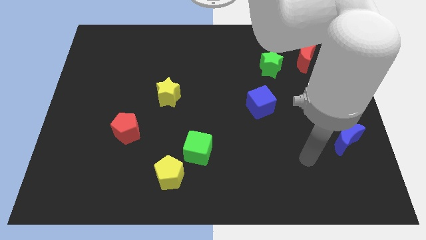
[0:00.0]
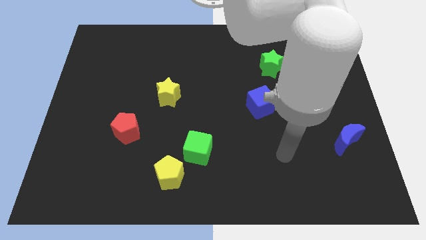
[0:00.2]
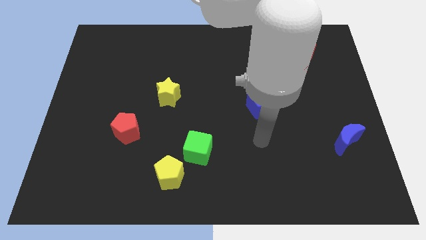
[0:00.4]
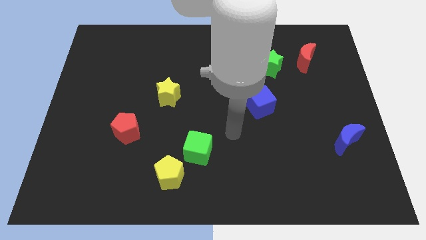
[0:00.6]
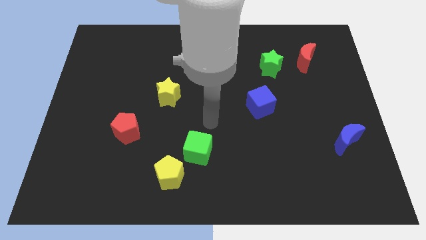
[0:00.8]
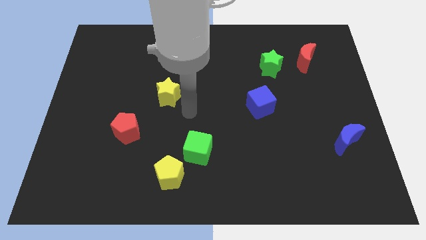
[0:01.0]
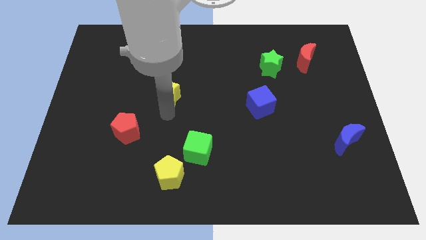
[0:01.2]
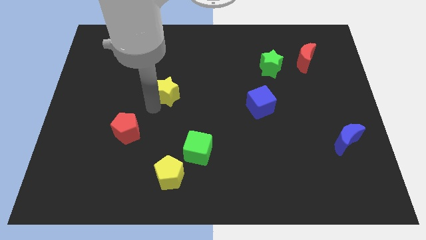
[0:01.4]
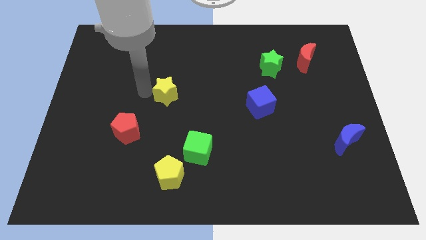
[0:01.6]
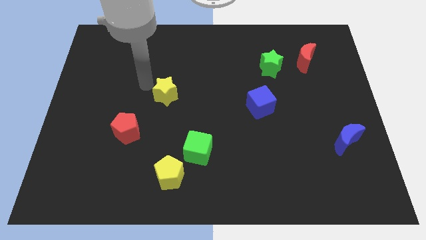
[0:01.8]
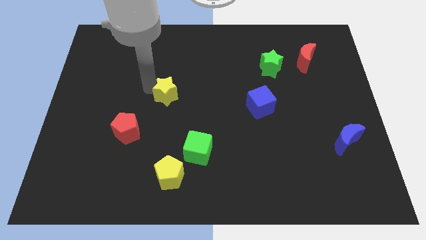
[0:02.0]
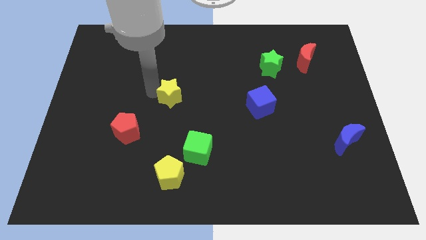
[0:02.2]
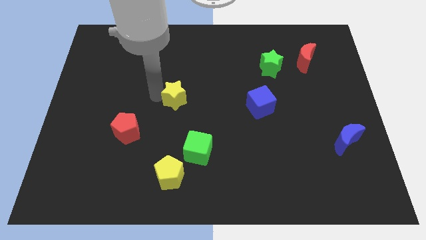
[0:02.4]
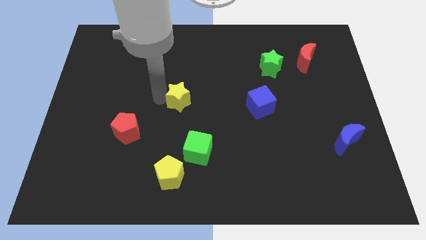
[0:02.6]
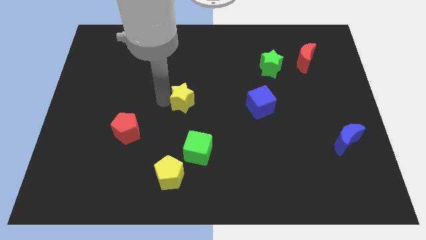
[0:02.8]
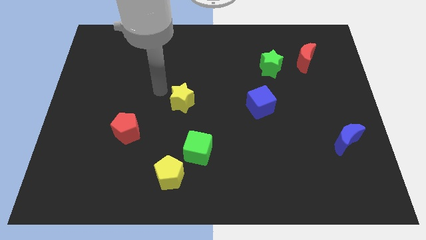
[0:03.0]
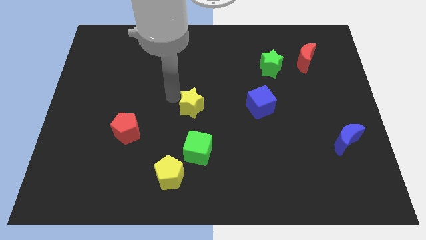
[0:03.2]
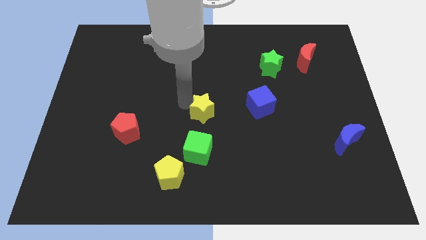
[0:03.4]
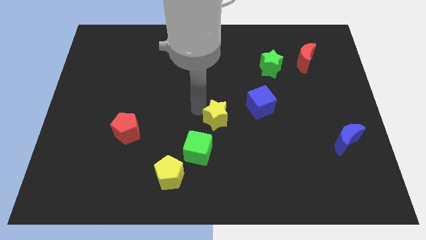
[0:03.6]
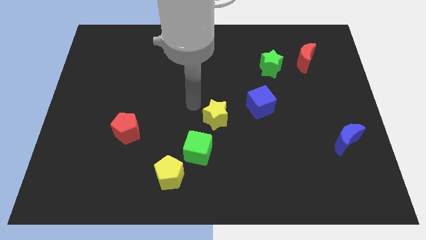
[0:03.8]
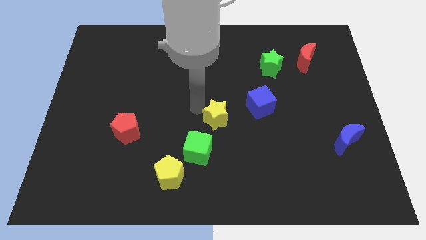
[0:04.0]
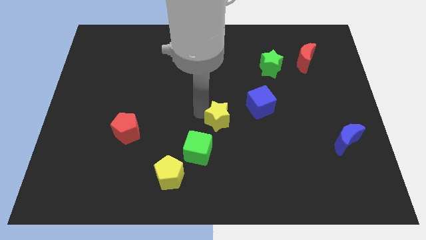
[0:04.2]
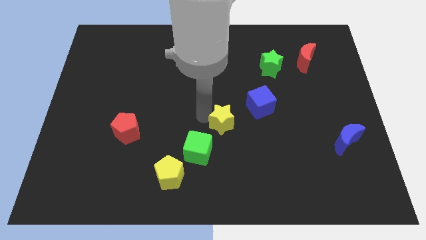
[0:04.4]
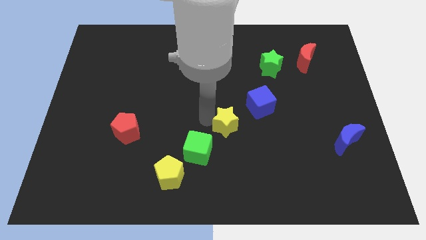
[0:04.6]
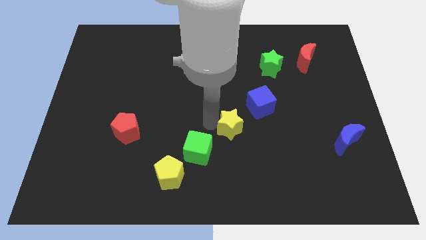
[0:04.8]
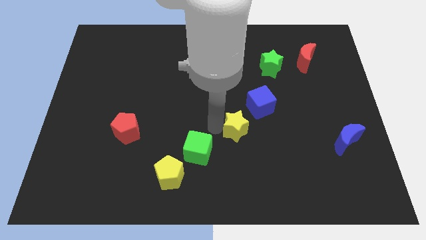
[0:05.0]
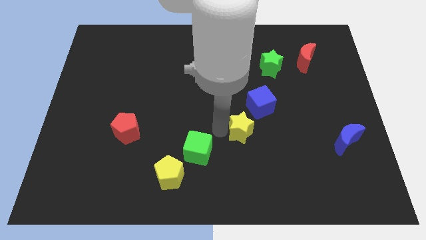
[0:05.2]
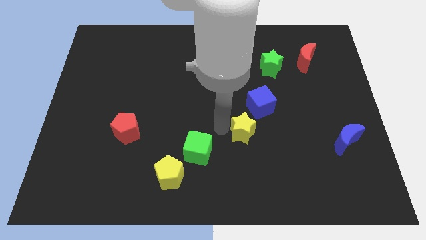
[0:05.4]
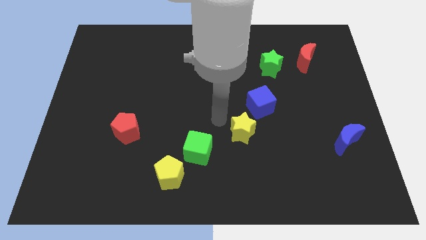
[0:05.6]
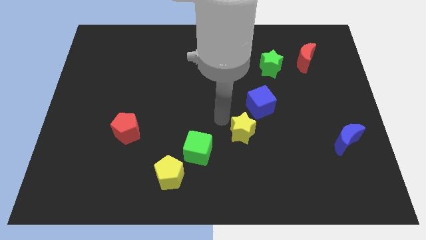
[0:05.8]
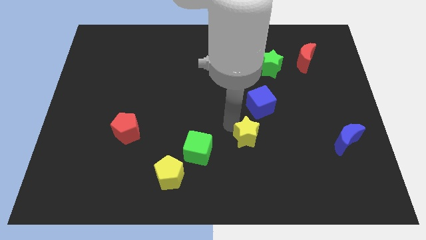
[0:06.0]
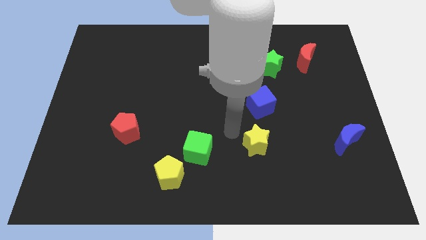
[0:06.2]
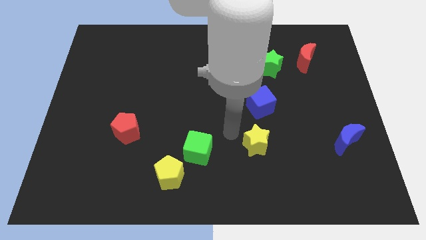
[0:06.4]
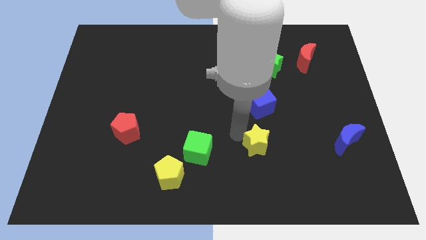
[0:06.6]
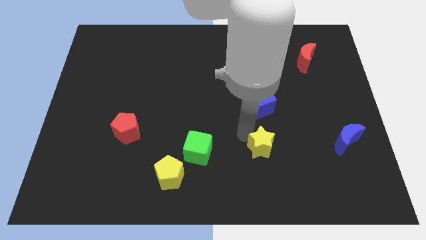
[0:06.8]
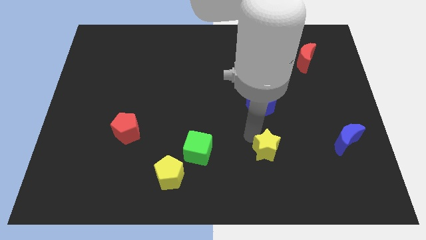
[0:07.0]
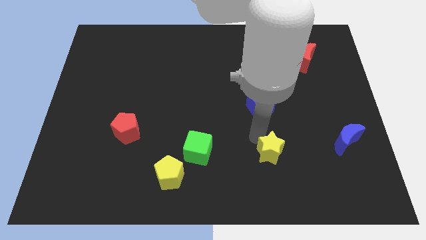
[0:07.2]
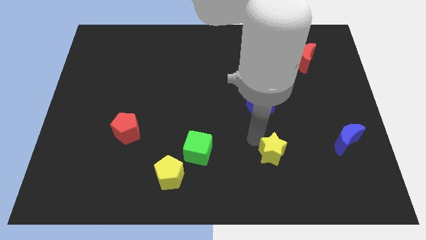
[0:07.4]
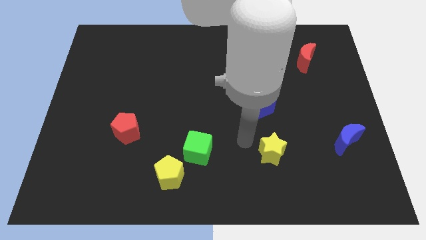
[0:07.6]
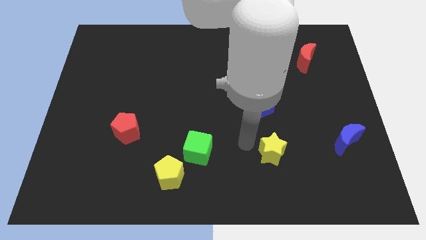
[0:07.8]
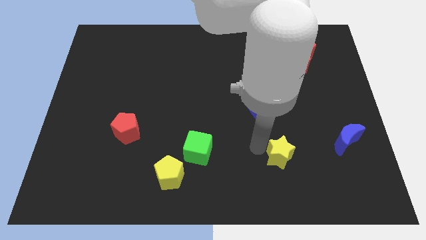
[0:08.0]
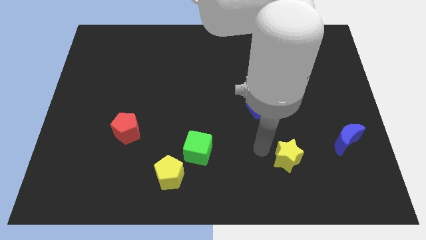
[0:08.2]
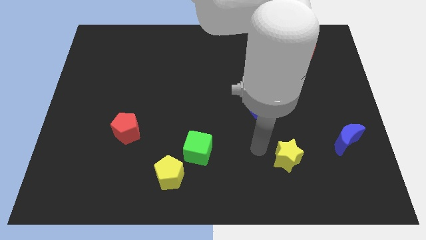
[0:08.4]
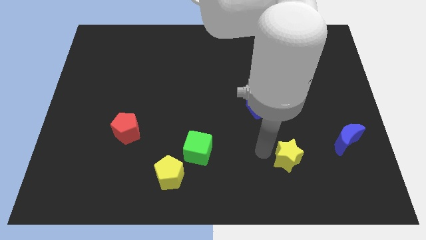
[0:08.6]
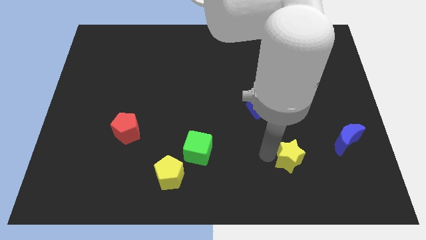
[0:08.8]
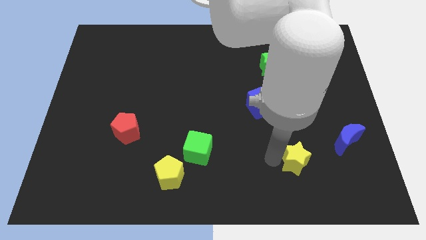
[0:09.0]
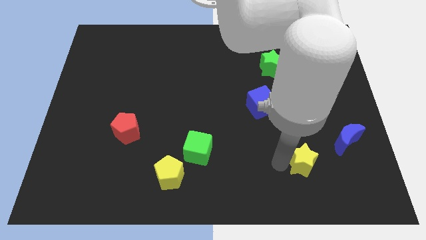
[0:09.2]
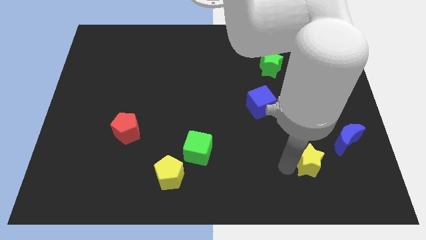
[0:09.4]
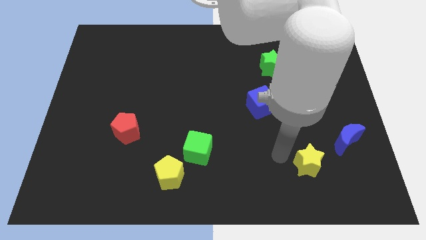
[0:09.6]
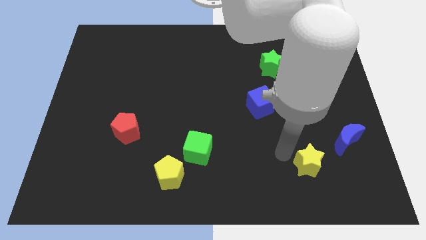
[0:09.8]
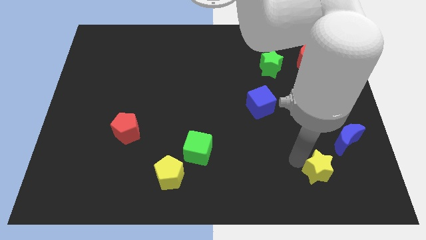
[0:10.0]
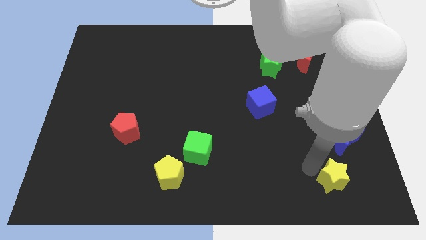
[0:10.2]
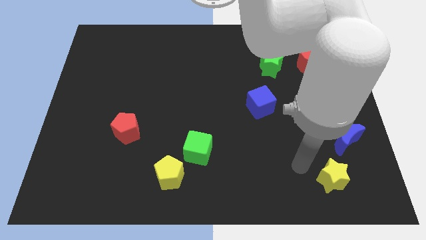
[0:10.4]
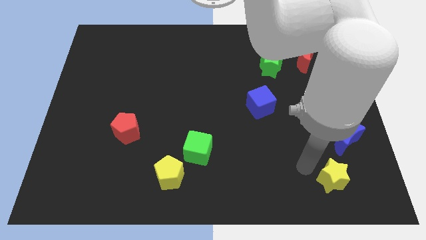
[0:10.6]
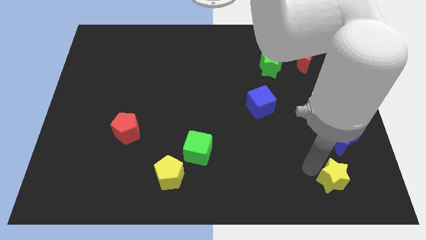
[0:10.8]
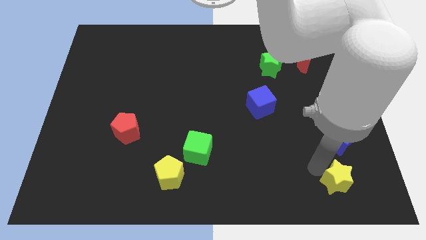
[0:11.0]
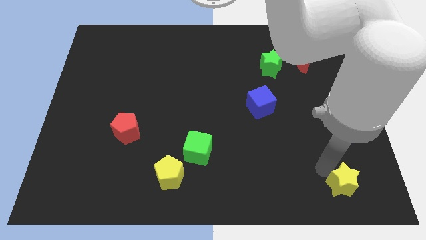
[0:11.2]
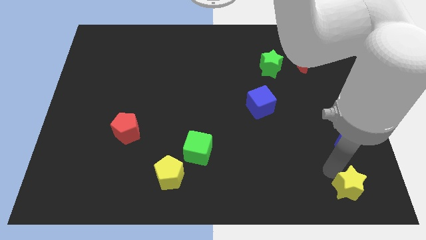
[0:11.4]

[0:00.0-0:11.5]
push the yellow star to the bottom right corner

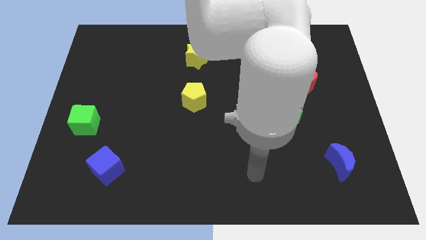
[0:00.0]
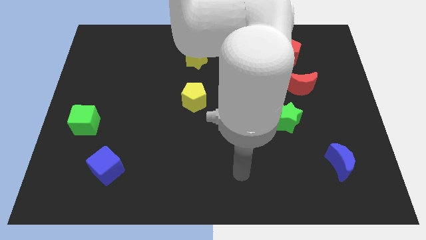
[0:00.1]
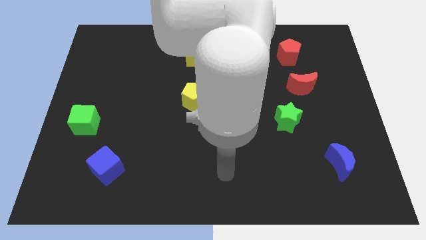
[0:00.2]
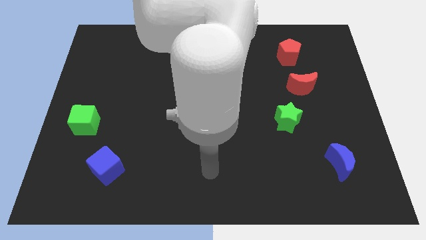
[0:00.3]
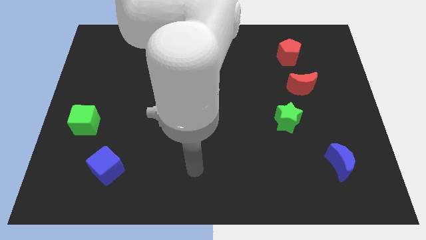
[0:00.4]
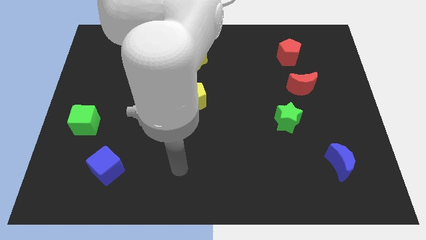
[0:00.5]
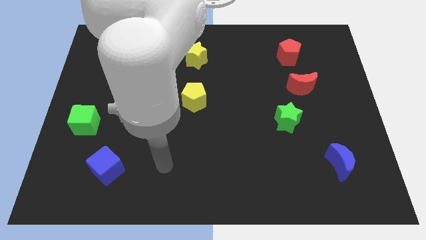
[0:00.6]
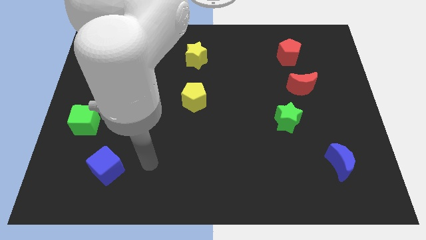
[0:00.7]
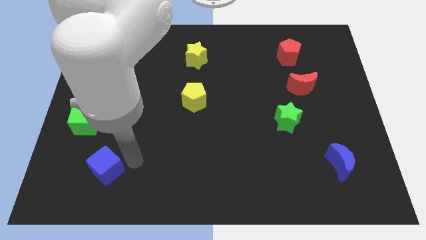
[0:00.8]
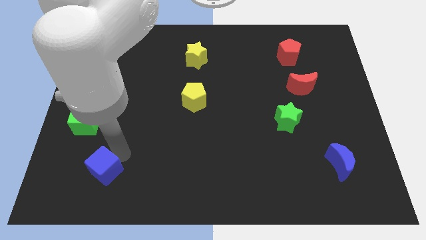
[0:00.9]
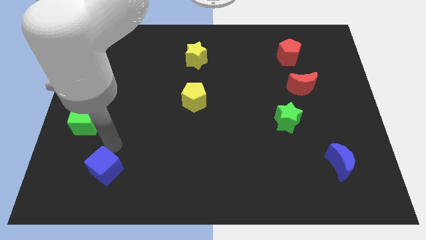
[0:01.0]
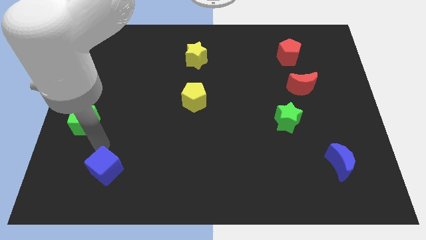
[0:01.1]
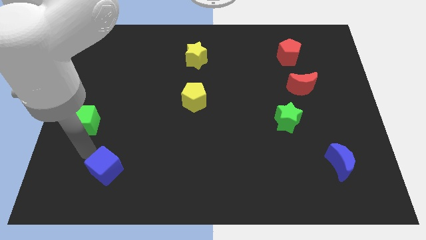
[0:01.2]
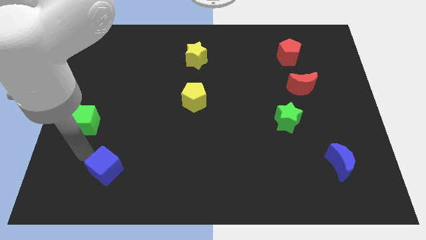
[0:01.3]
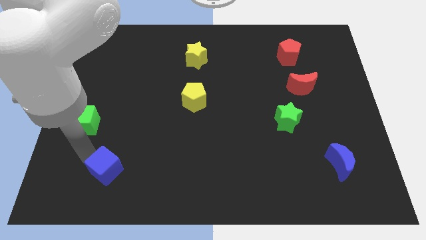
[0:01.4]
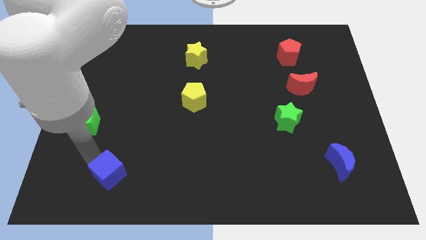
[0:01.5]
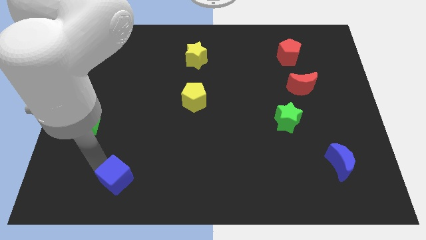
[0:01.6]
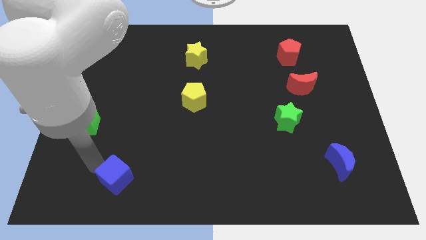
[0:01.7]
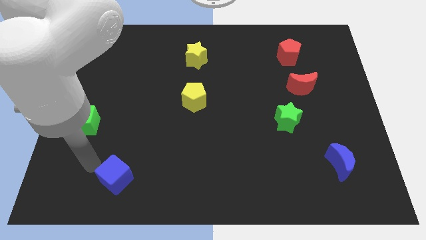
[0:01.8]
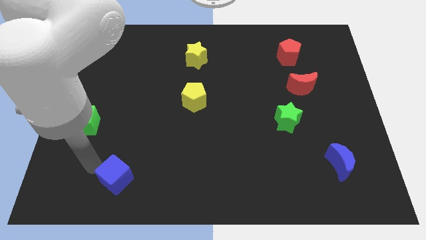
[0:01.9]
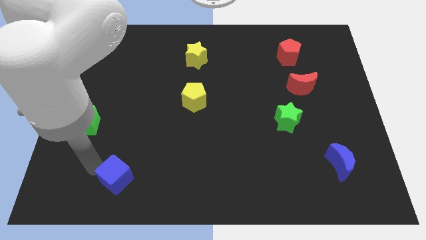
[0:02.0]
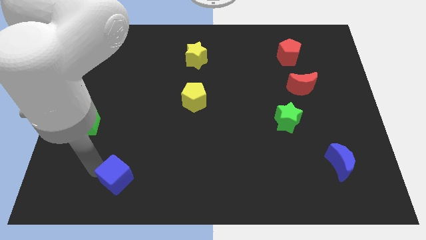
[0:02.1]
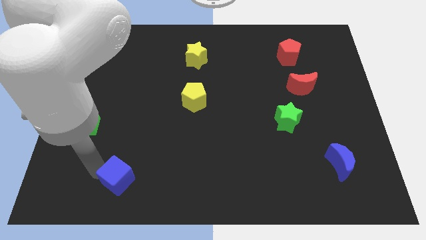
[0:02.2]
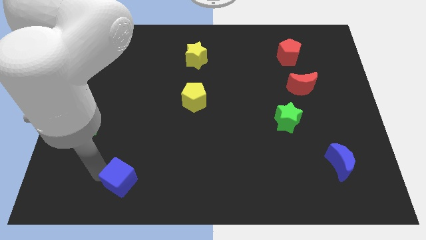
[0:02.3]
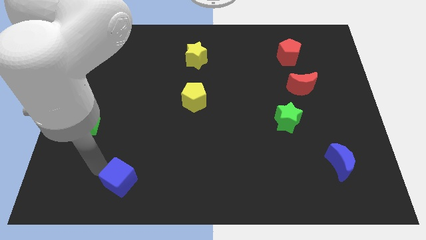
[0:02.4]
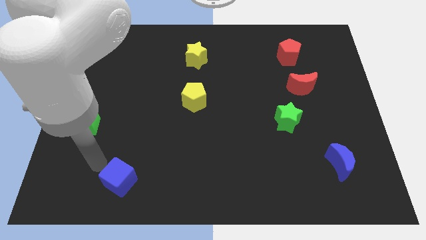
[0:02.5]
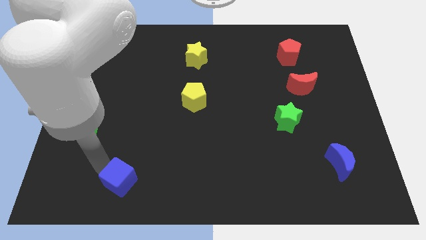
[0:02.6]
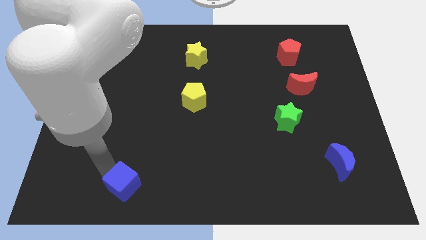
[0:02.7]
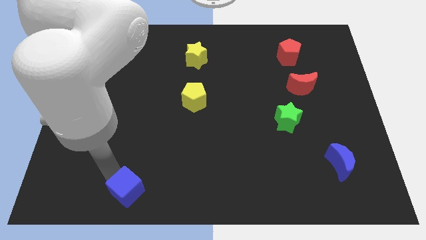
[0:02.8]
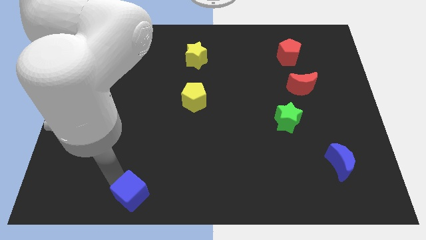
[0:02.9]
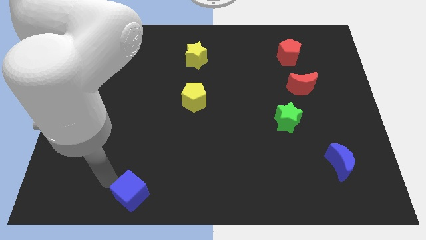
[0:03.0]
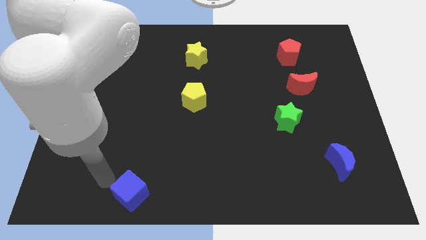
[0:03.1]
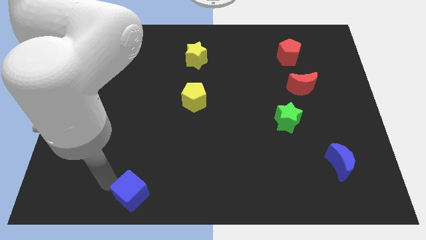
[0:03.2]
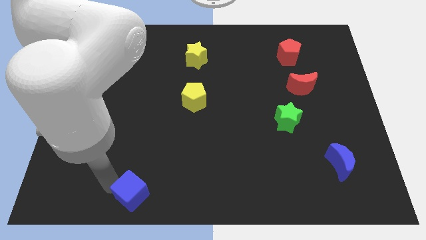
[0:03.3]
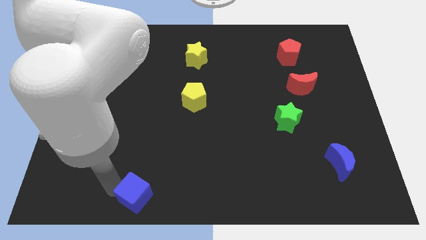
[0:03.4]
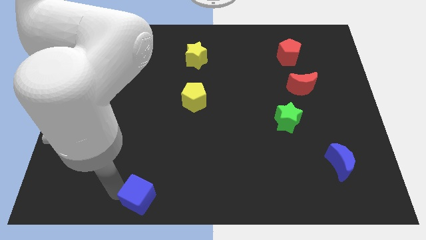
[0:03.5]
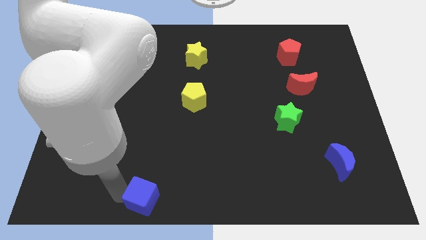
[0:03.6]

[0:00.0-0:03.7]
move the blue cube to the bottom
